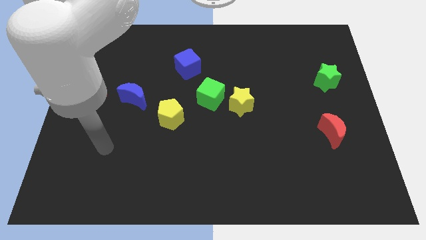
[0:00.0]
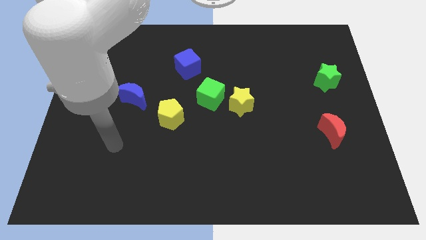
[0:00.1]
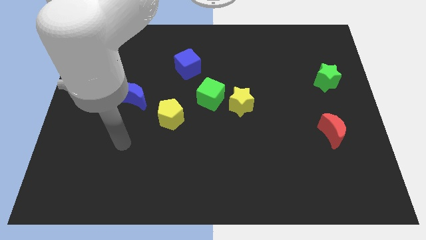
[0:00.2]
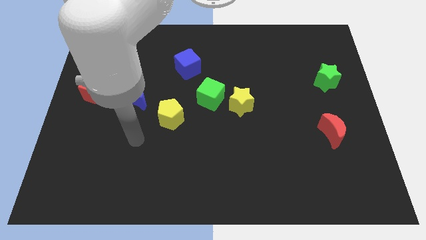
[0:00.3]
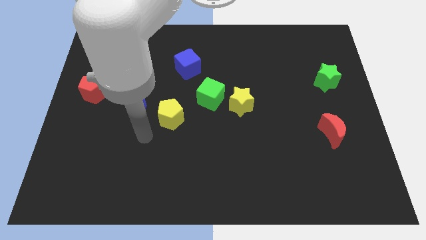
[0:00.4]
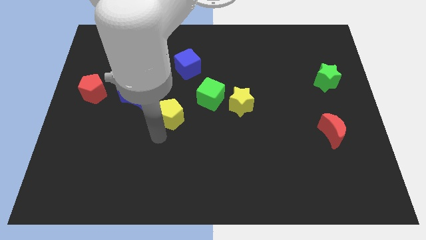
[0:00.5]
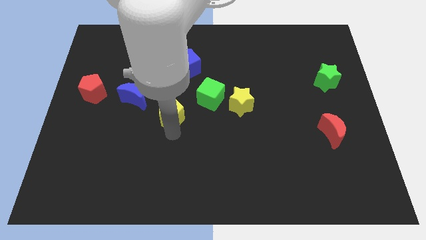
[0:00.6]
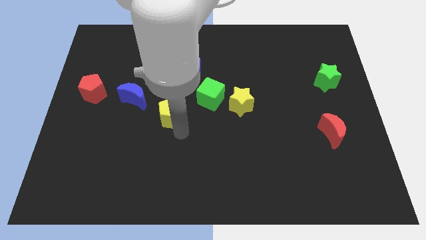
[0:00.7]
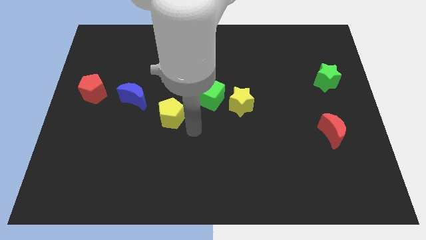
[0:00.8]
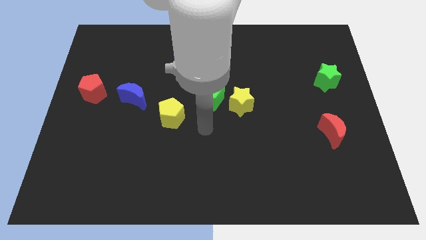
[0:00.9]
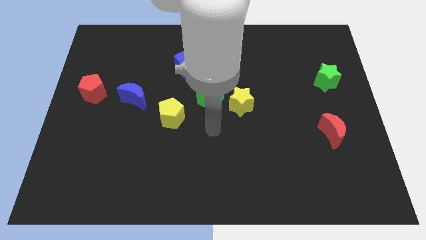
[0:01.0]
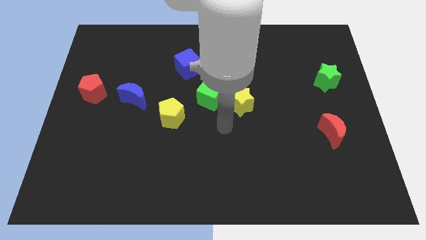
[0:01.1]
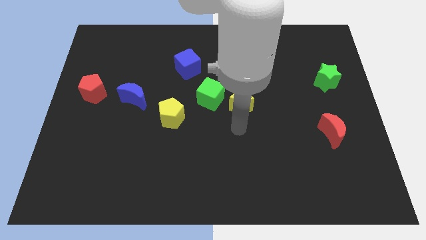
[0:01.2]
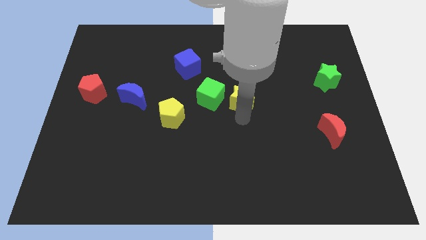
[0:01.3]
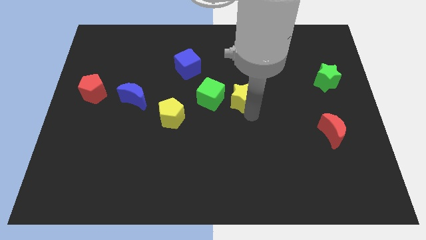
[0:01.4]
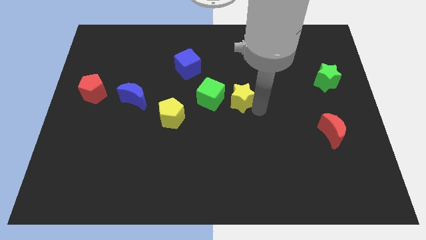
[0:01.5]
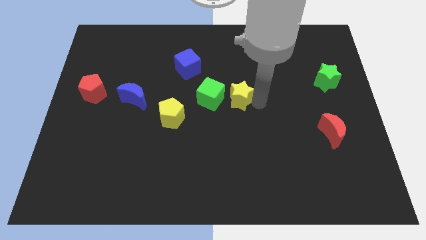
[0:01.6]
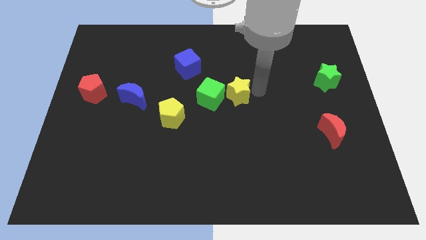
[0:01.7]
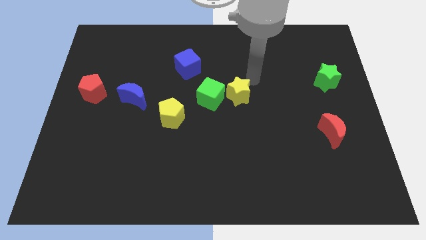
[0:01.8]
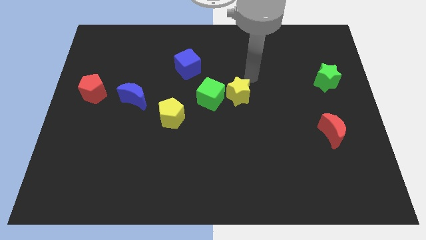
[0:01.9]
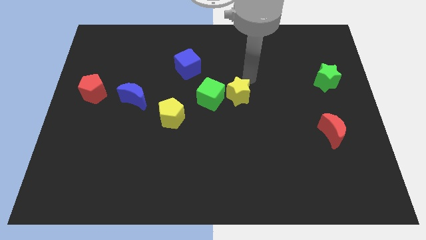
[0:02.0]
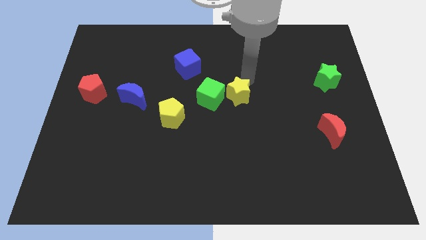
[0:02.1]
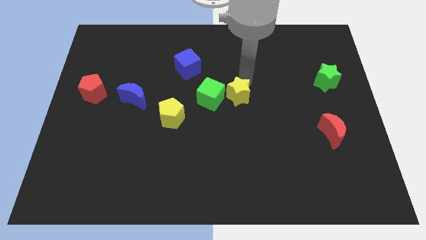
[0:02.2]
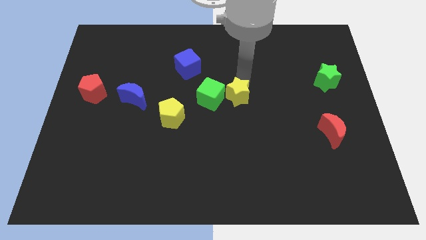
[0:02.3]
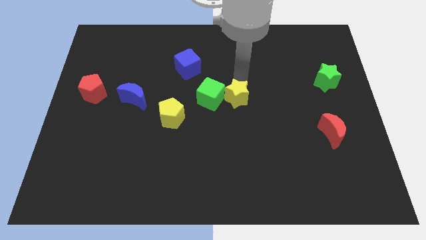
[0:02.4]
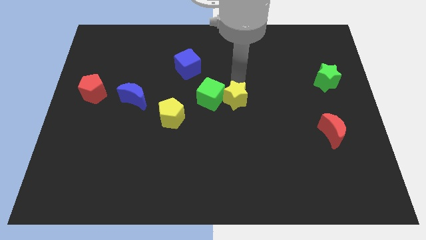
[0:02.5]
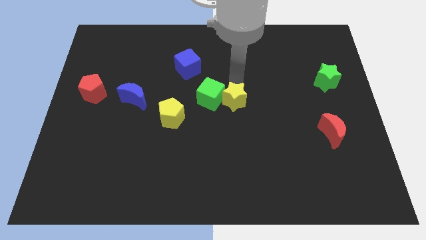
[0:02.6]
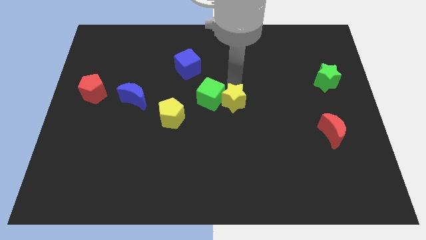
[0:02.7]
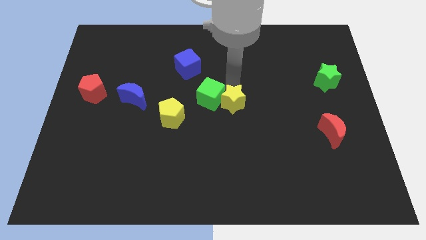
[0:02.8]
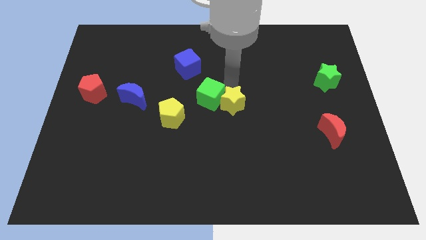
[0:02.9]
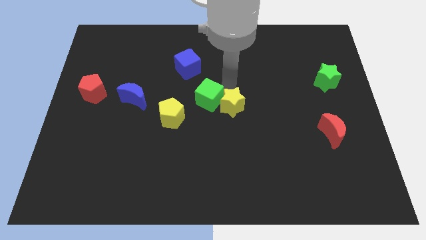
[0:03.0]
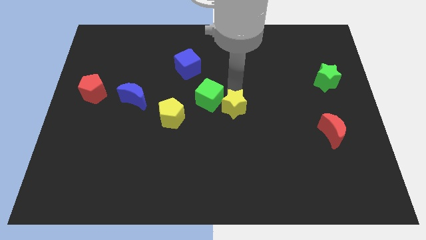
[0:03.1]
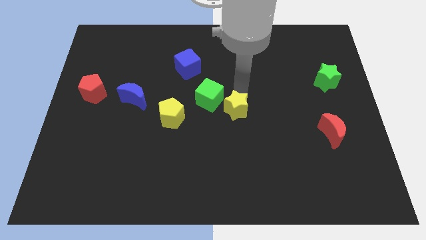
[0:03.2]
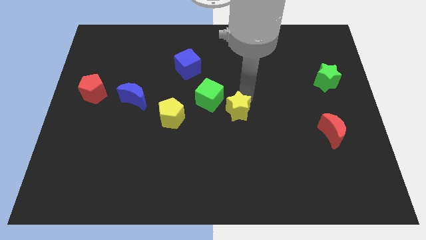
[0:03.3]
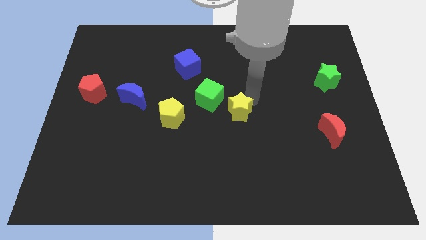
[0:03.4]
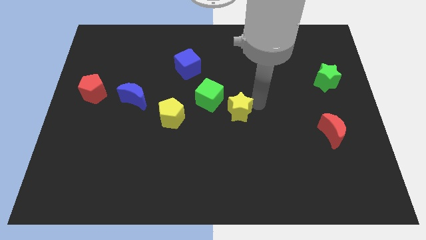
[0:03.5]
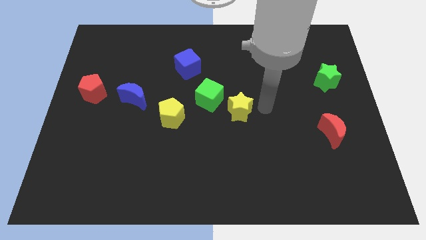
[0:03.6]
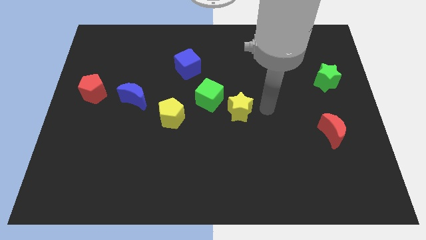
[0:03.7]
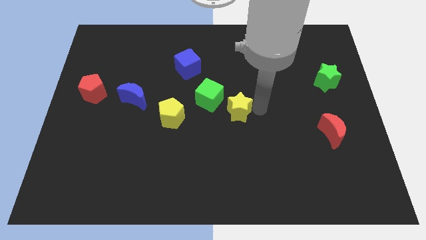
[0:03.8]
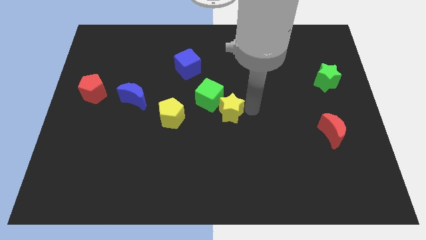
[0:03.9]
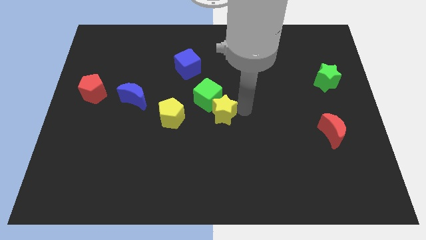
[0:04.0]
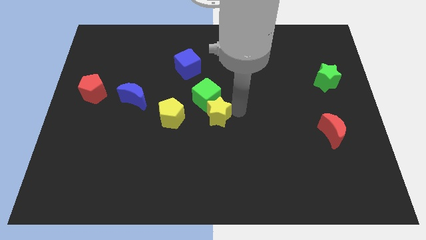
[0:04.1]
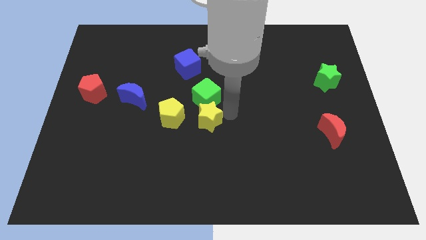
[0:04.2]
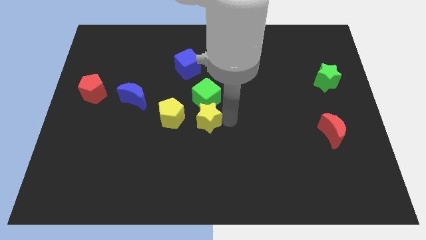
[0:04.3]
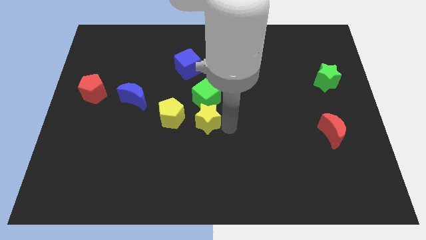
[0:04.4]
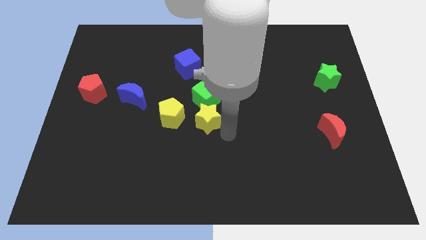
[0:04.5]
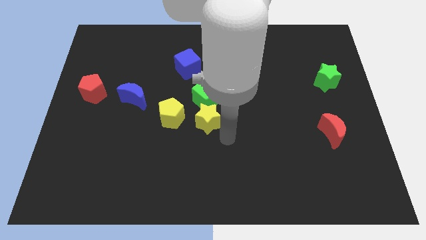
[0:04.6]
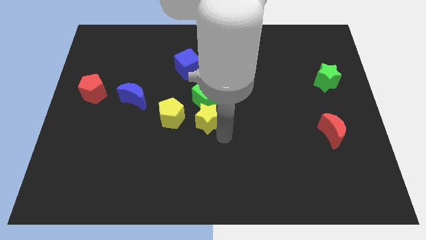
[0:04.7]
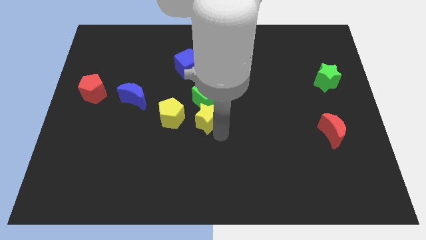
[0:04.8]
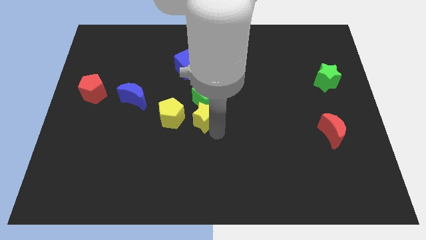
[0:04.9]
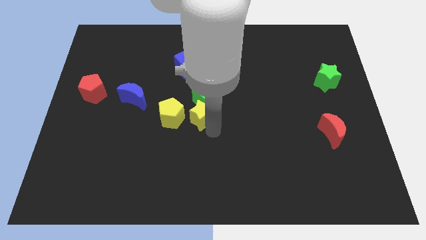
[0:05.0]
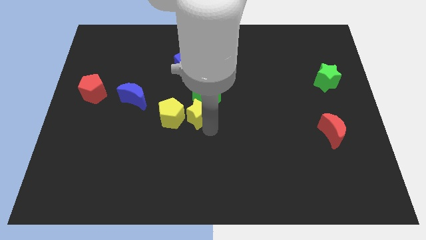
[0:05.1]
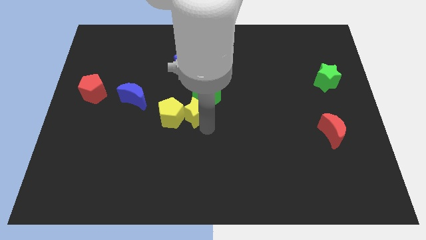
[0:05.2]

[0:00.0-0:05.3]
push the yellow star to the bottom of the blue cube

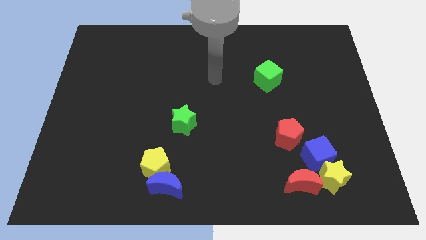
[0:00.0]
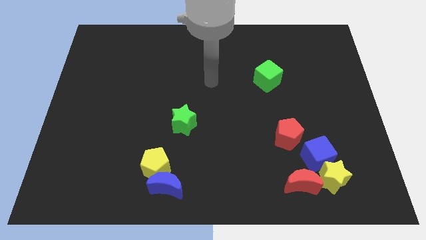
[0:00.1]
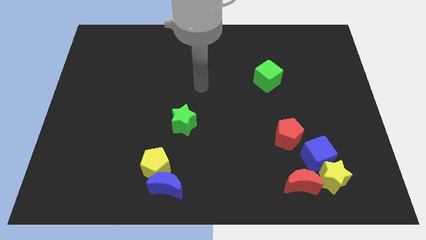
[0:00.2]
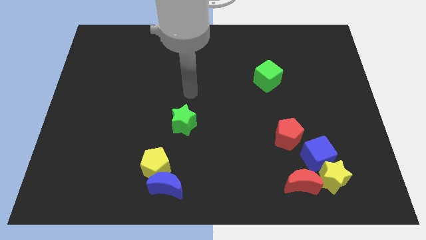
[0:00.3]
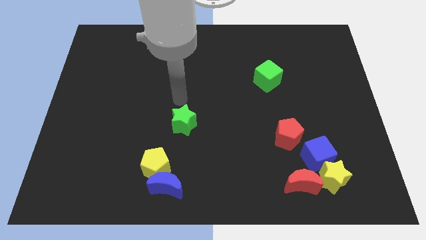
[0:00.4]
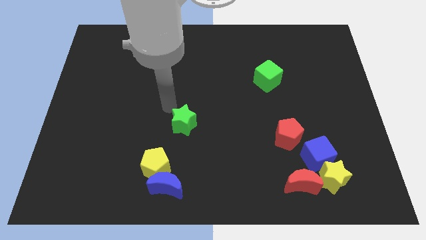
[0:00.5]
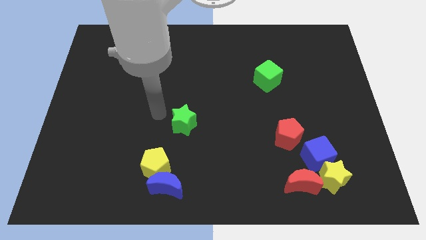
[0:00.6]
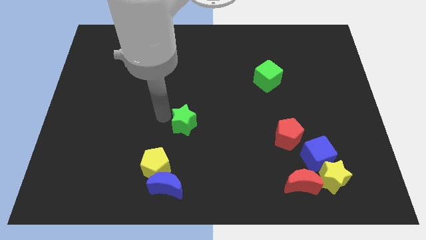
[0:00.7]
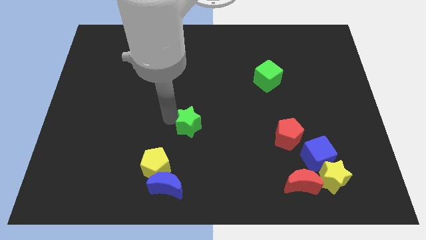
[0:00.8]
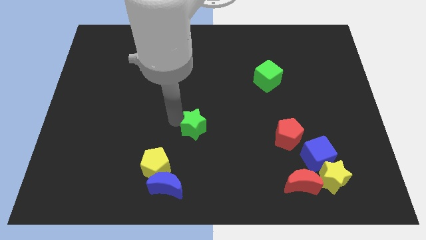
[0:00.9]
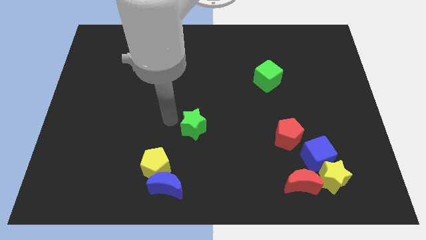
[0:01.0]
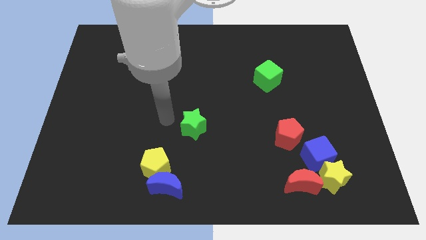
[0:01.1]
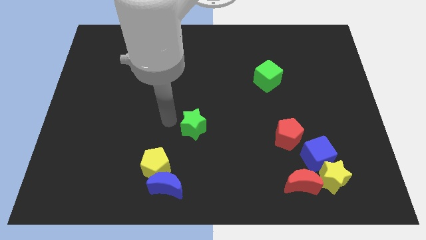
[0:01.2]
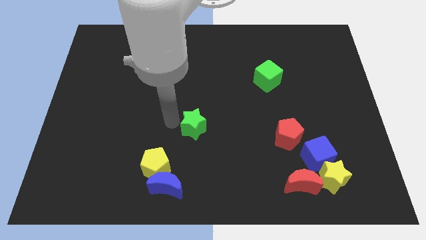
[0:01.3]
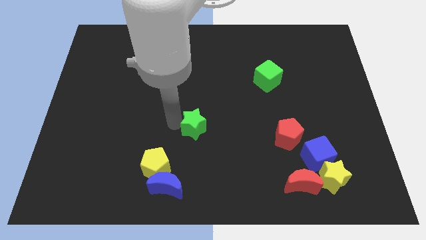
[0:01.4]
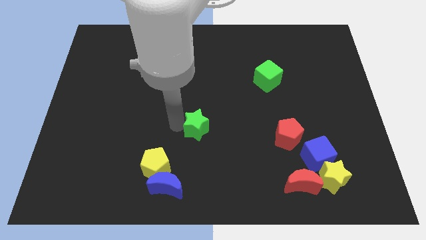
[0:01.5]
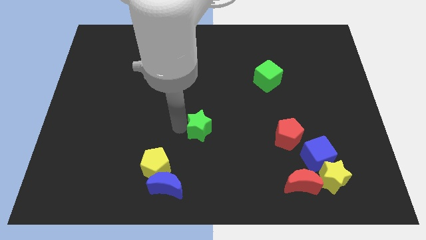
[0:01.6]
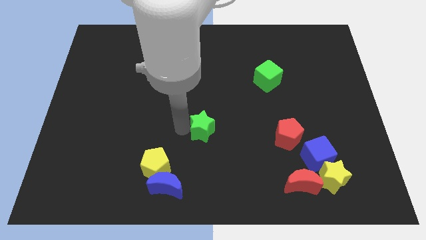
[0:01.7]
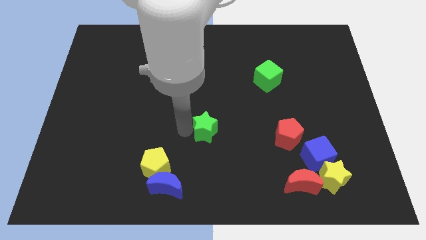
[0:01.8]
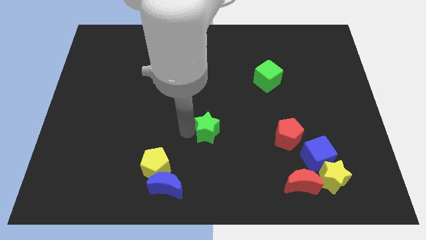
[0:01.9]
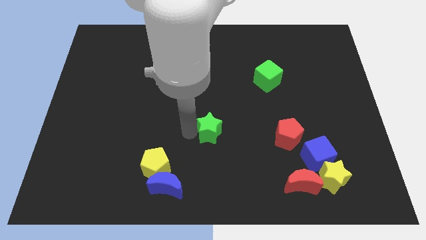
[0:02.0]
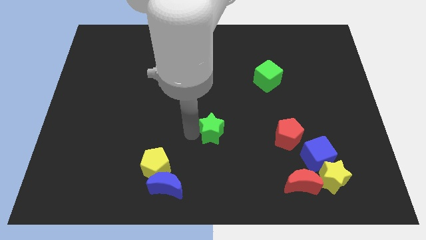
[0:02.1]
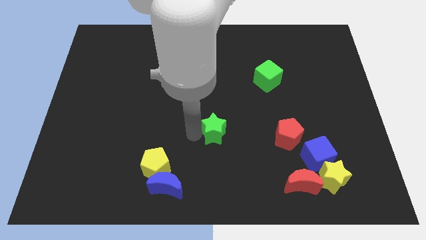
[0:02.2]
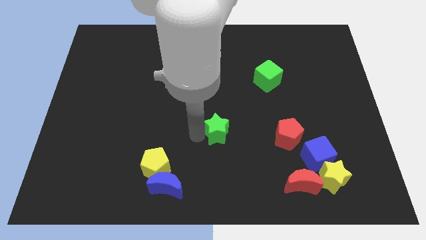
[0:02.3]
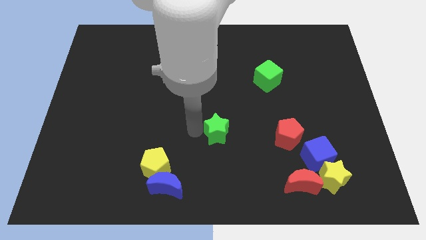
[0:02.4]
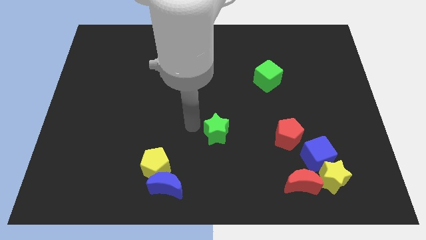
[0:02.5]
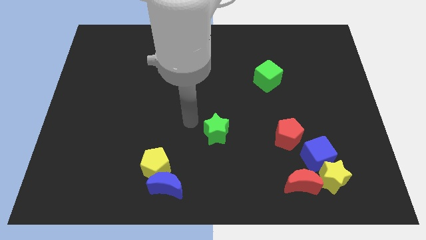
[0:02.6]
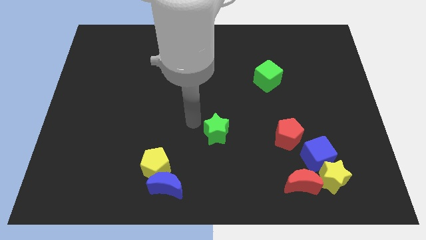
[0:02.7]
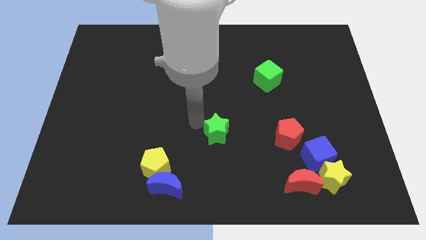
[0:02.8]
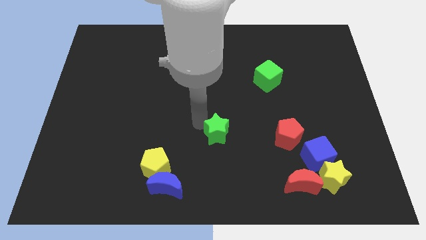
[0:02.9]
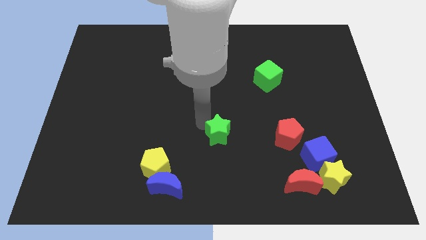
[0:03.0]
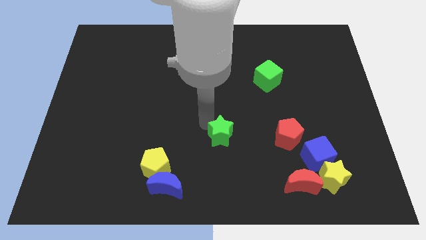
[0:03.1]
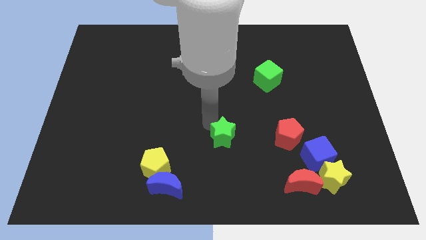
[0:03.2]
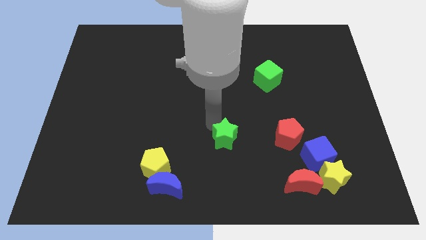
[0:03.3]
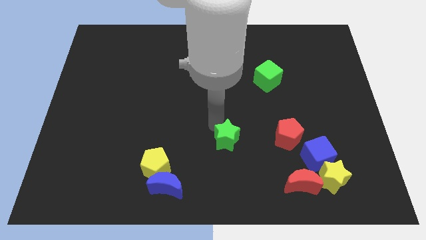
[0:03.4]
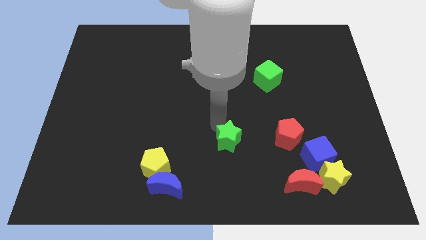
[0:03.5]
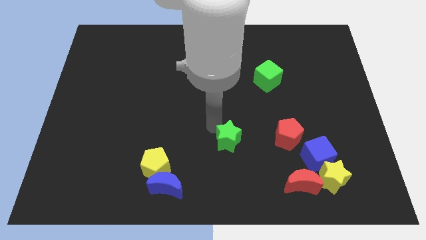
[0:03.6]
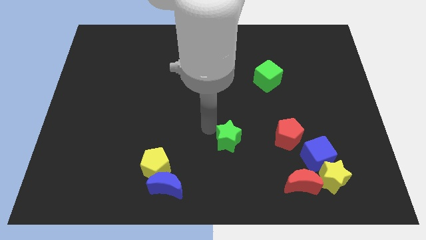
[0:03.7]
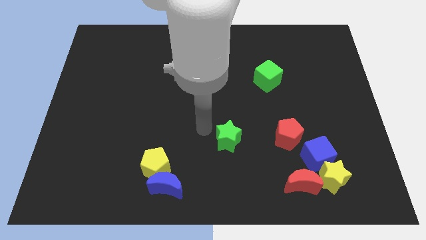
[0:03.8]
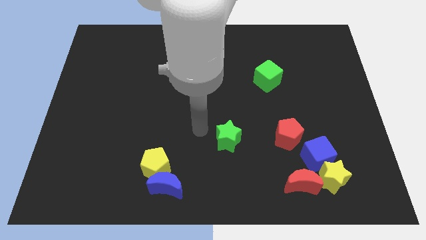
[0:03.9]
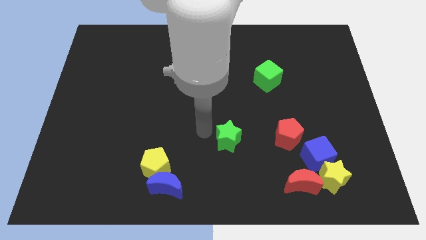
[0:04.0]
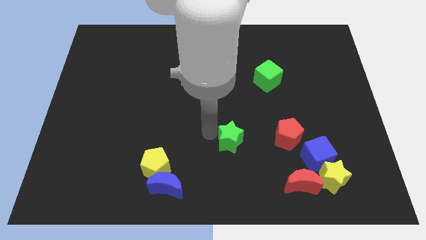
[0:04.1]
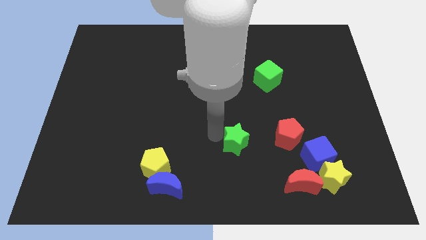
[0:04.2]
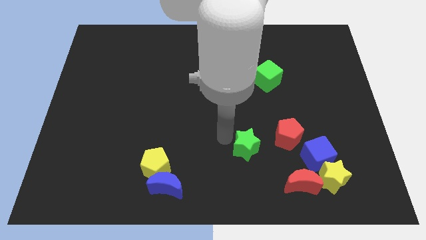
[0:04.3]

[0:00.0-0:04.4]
slide the green star to the left of the blue cube
